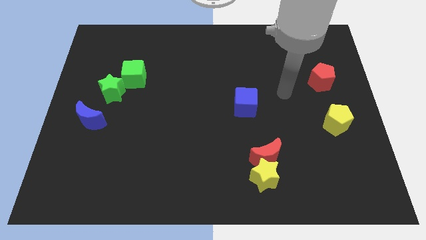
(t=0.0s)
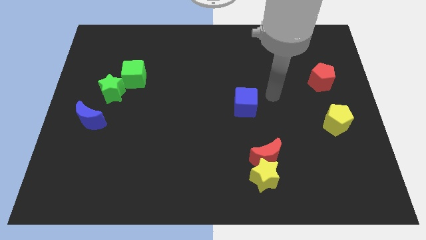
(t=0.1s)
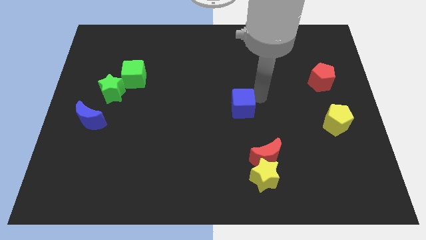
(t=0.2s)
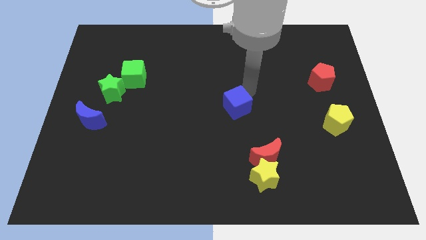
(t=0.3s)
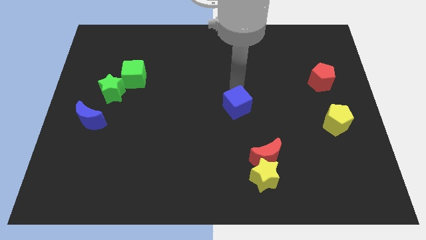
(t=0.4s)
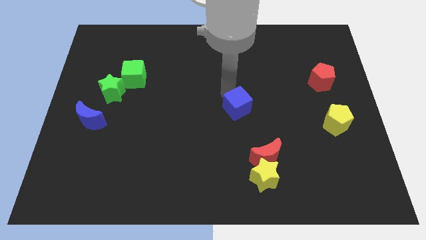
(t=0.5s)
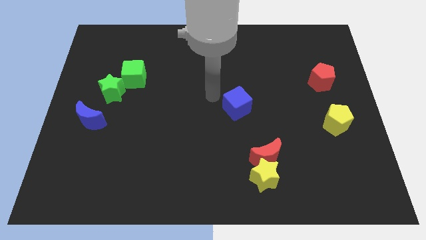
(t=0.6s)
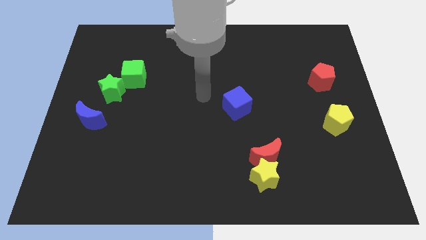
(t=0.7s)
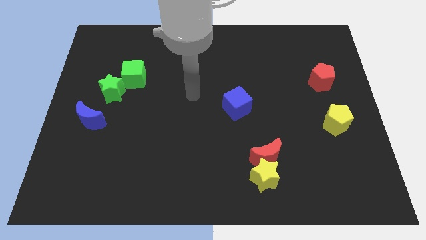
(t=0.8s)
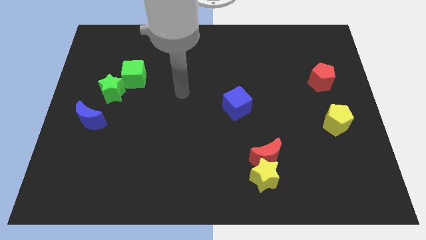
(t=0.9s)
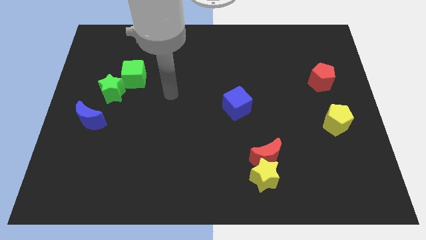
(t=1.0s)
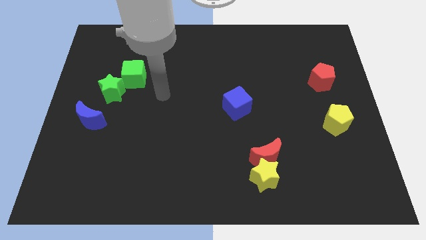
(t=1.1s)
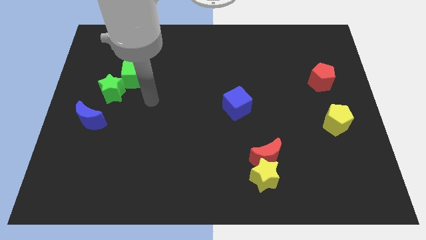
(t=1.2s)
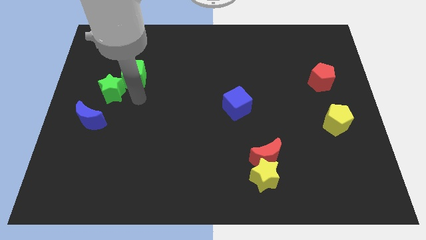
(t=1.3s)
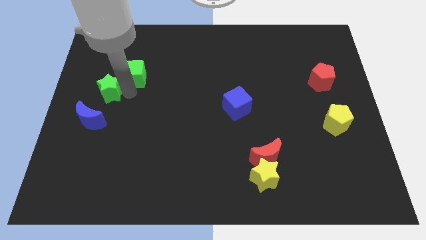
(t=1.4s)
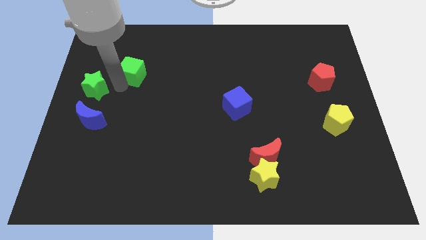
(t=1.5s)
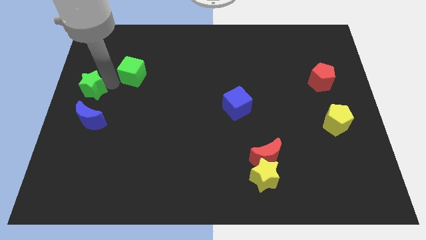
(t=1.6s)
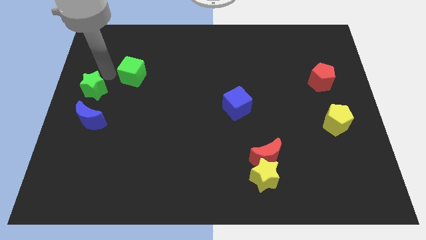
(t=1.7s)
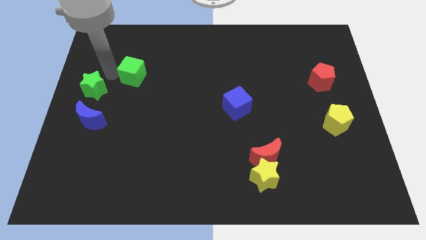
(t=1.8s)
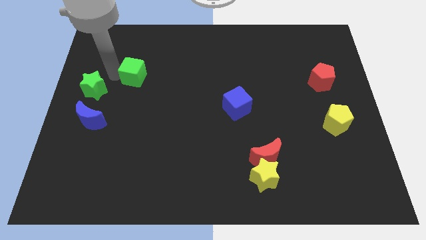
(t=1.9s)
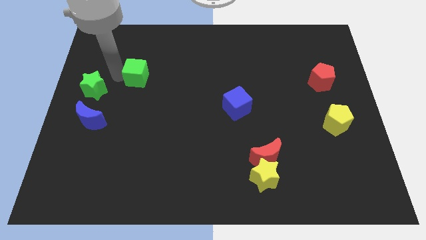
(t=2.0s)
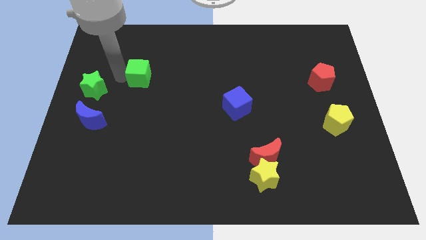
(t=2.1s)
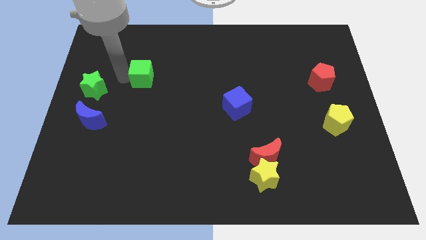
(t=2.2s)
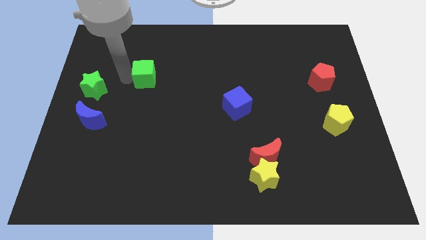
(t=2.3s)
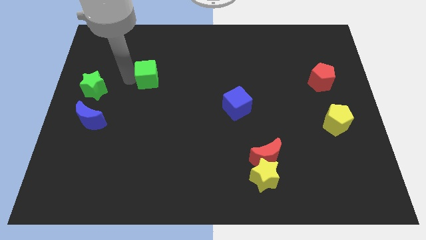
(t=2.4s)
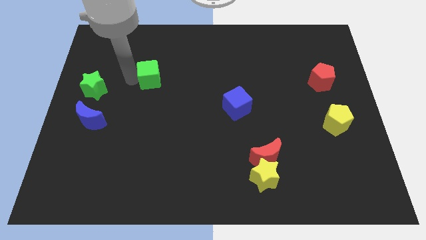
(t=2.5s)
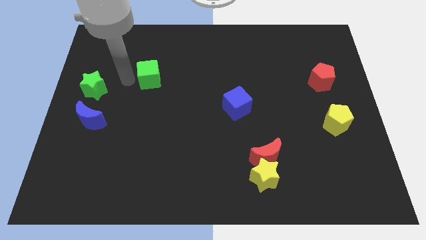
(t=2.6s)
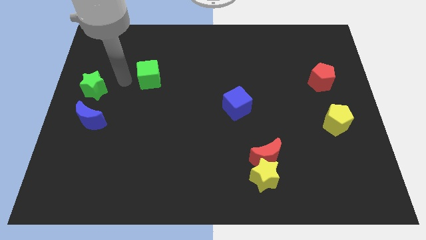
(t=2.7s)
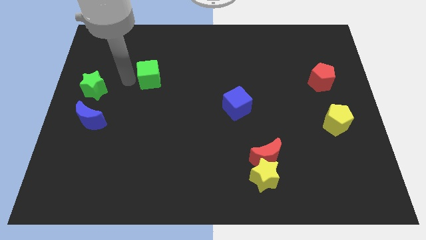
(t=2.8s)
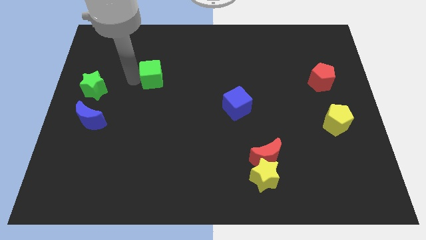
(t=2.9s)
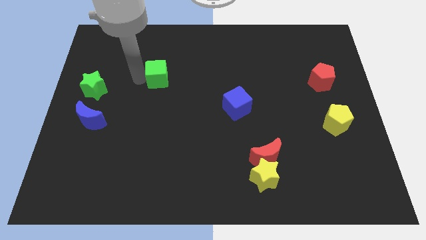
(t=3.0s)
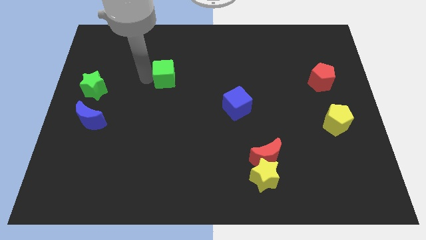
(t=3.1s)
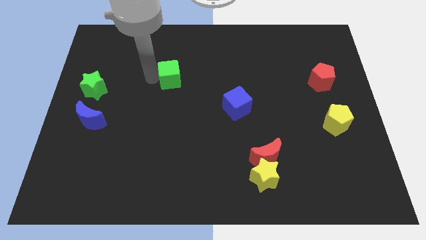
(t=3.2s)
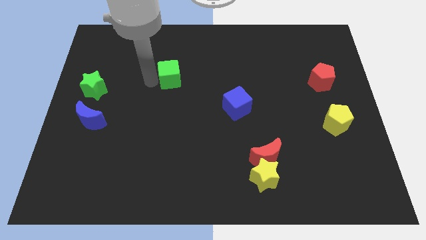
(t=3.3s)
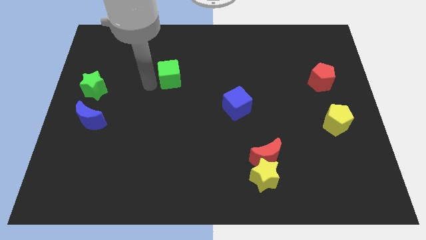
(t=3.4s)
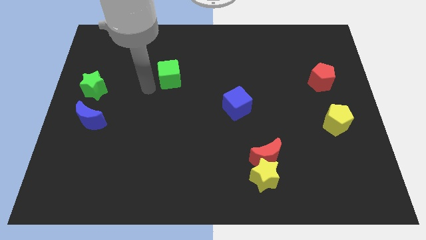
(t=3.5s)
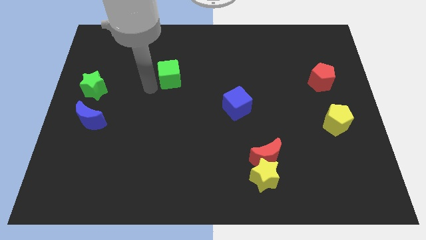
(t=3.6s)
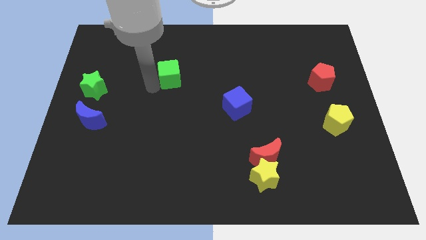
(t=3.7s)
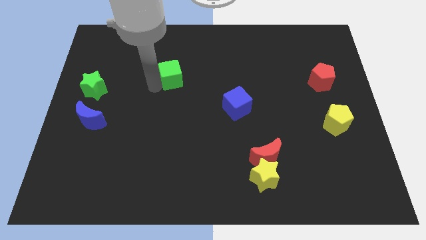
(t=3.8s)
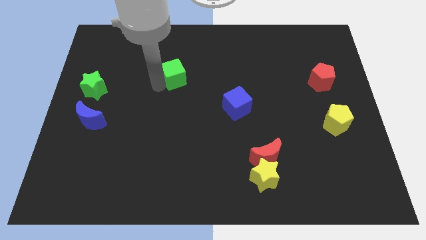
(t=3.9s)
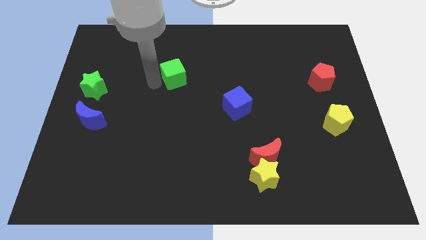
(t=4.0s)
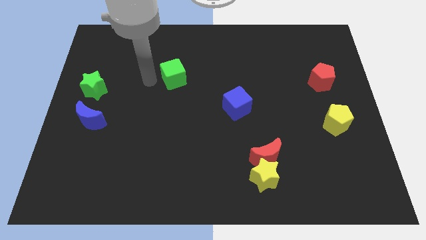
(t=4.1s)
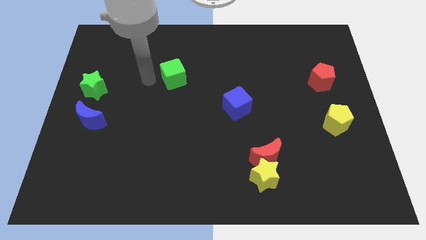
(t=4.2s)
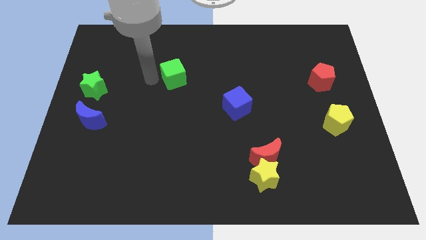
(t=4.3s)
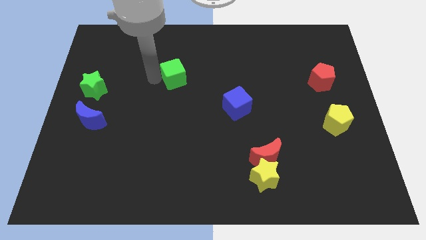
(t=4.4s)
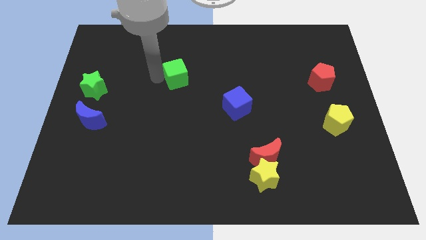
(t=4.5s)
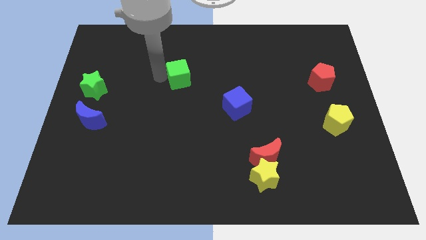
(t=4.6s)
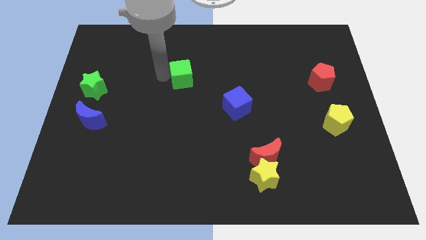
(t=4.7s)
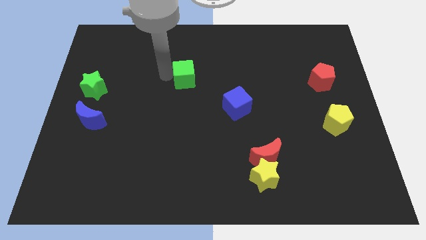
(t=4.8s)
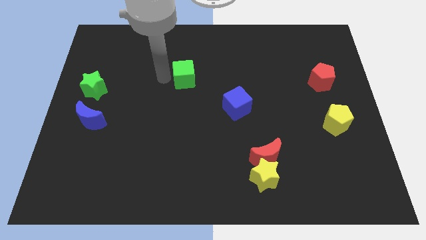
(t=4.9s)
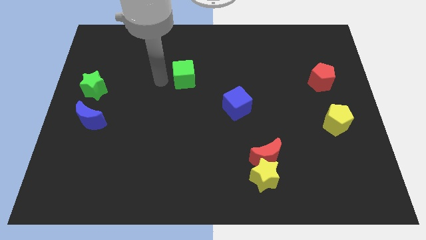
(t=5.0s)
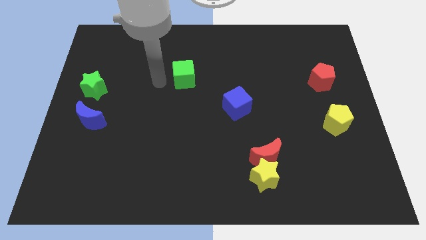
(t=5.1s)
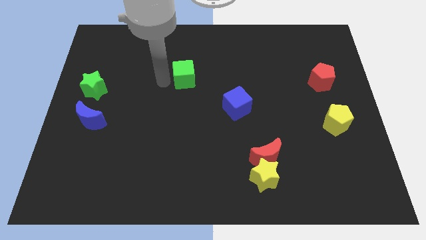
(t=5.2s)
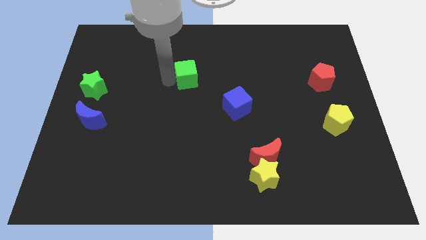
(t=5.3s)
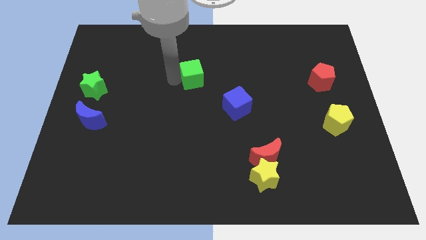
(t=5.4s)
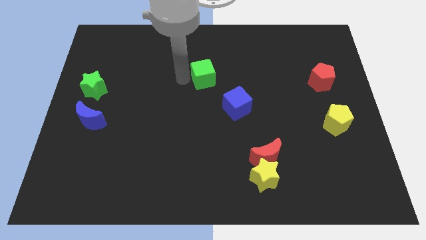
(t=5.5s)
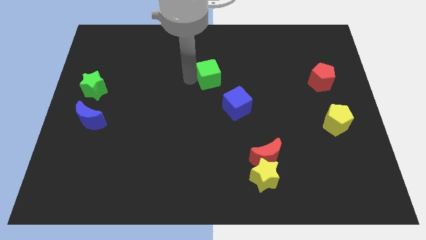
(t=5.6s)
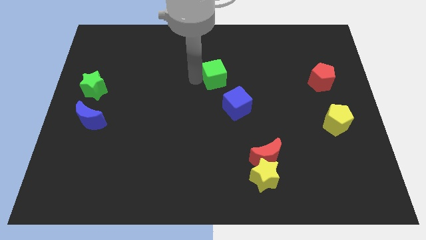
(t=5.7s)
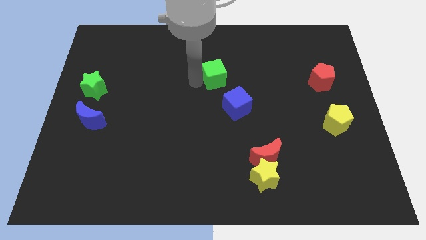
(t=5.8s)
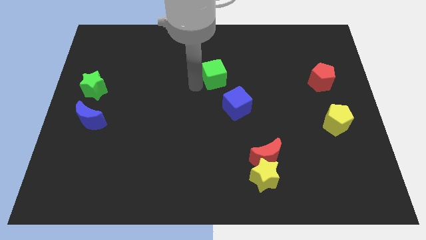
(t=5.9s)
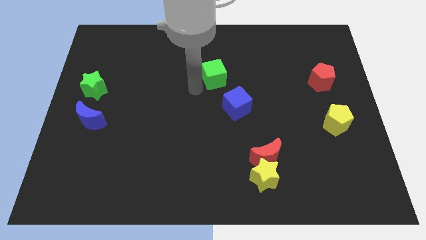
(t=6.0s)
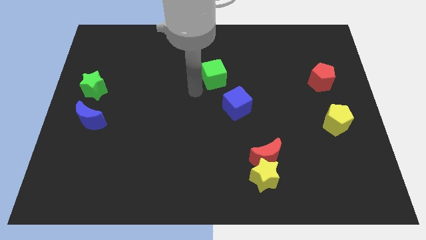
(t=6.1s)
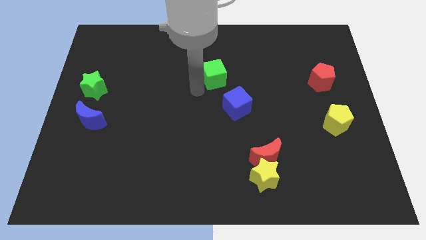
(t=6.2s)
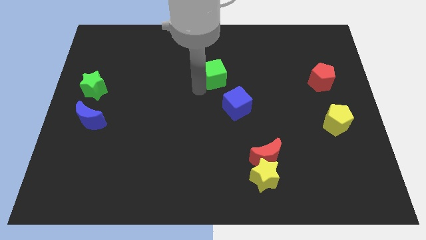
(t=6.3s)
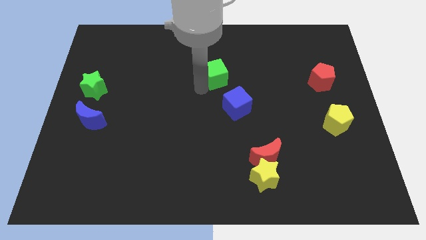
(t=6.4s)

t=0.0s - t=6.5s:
push the green cube to the top of the blue cube
